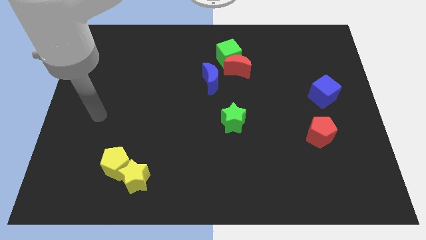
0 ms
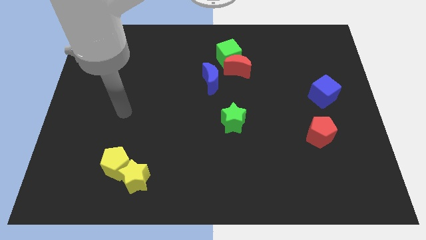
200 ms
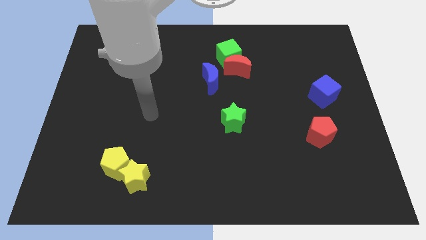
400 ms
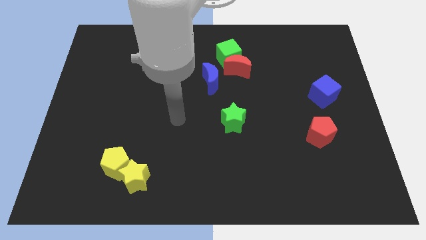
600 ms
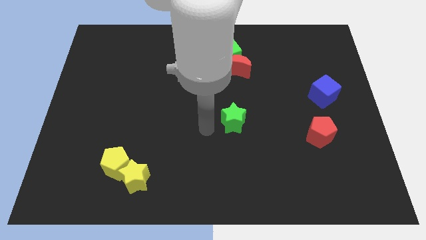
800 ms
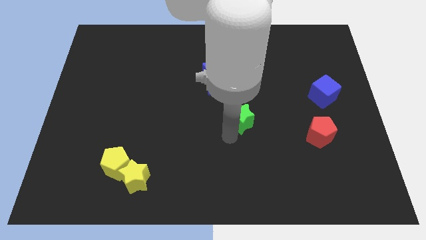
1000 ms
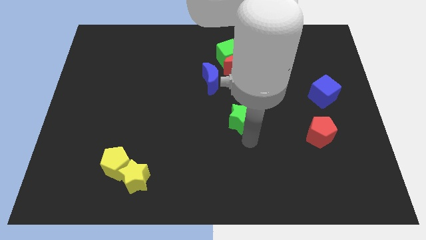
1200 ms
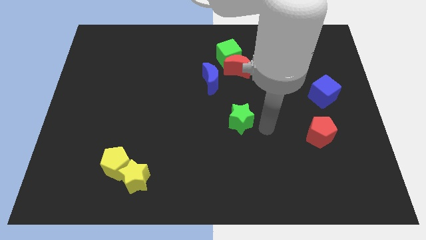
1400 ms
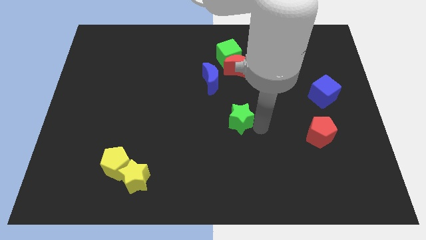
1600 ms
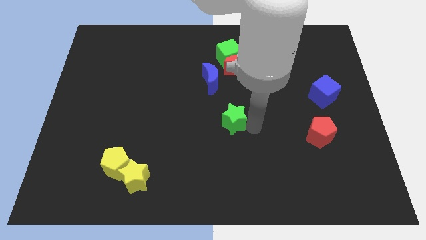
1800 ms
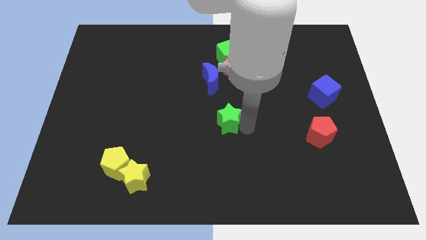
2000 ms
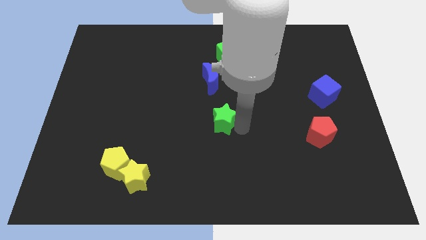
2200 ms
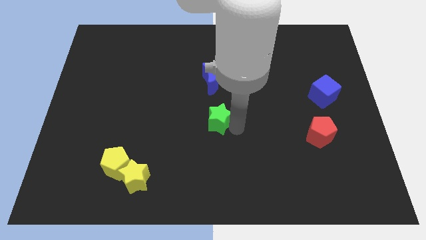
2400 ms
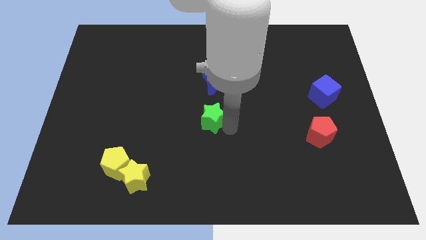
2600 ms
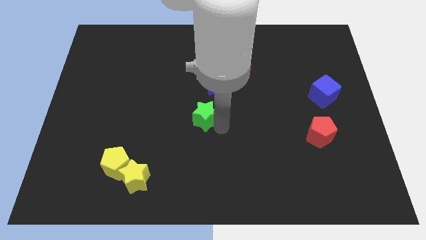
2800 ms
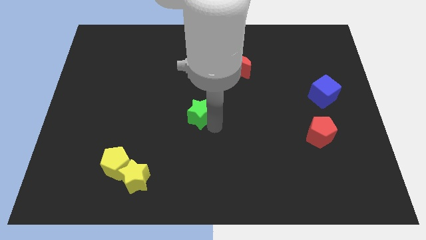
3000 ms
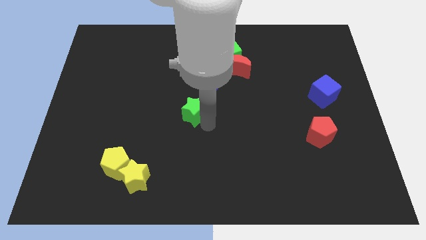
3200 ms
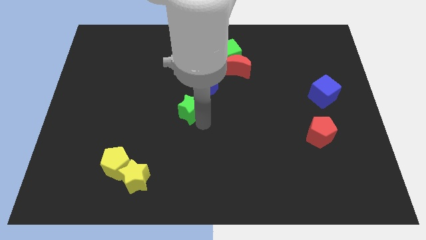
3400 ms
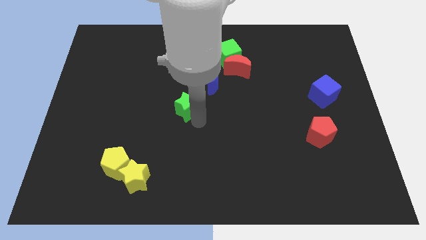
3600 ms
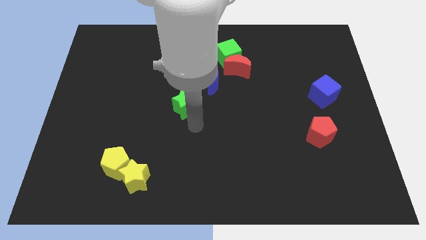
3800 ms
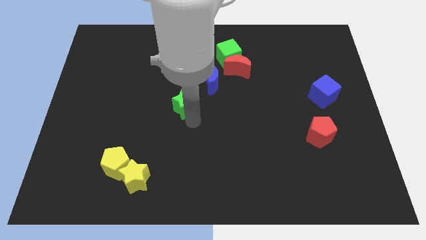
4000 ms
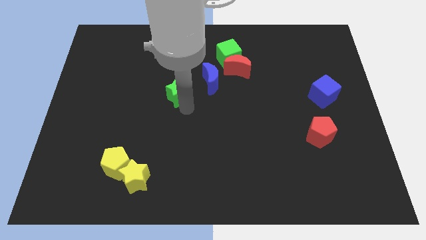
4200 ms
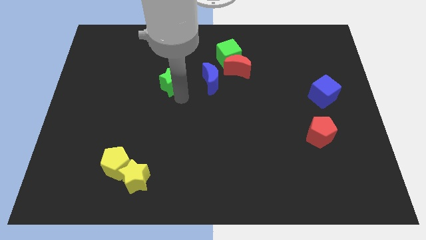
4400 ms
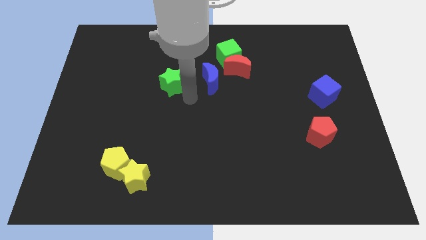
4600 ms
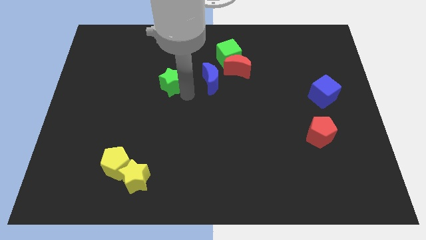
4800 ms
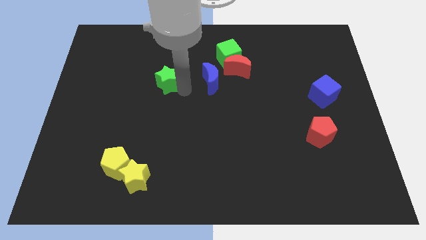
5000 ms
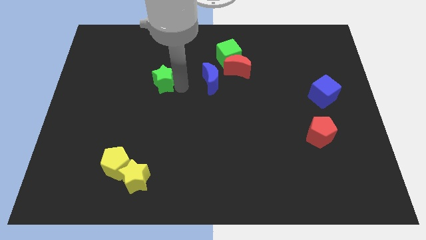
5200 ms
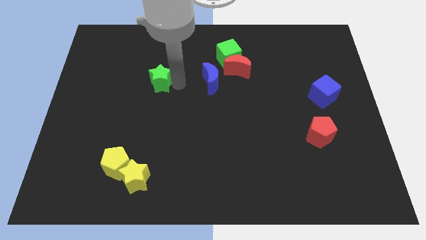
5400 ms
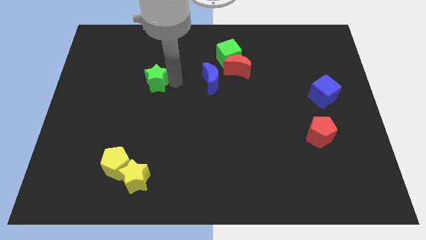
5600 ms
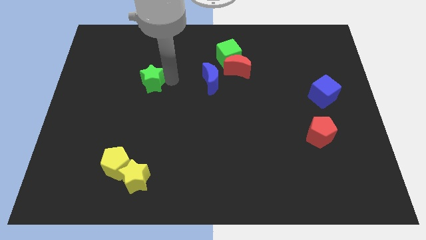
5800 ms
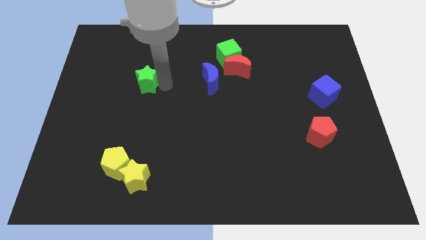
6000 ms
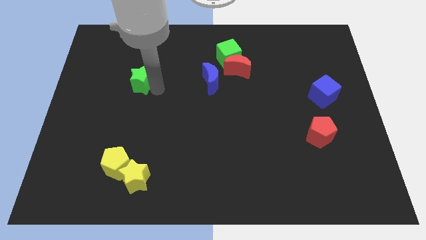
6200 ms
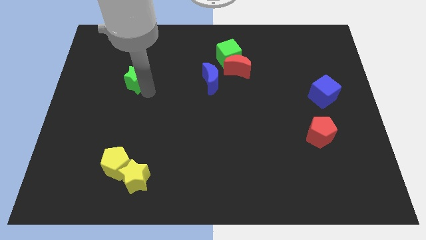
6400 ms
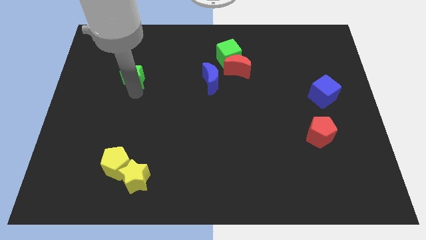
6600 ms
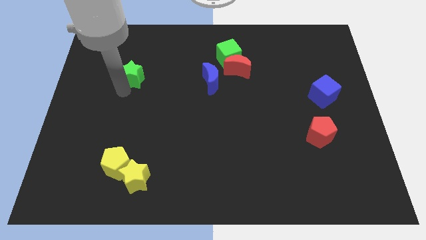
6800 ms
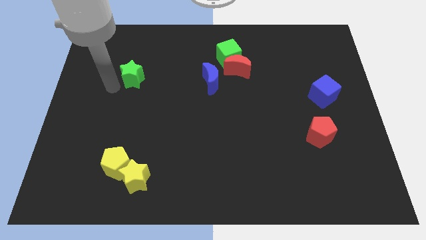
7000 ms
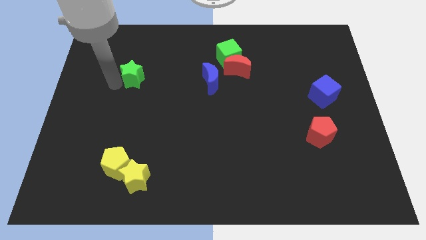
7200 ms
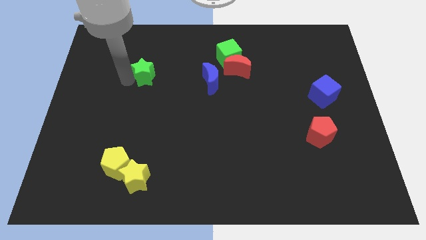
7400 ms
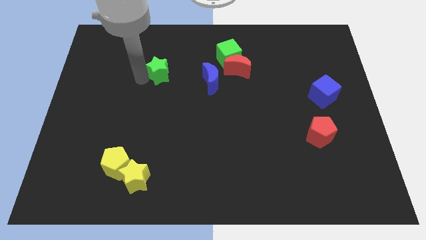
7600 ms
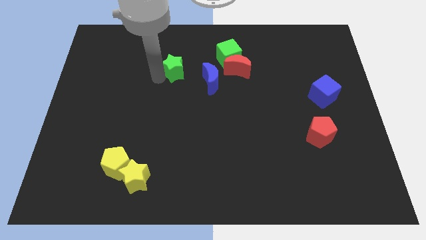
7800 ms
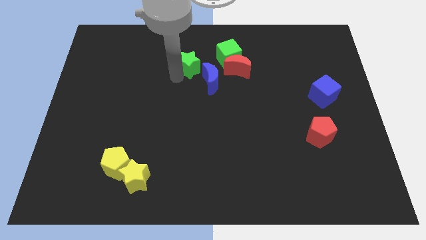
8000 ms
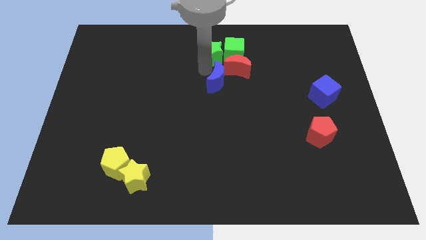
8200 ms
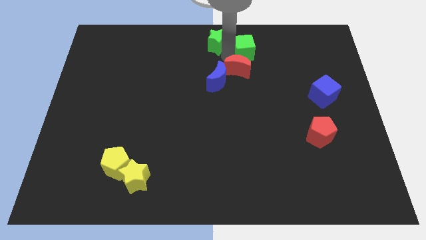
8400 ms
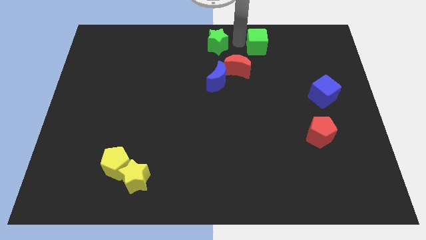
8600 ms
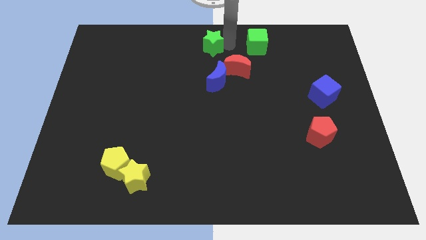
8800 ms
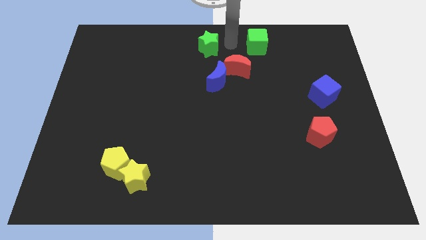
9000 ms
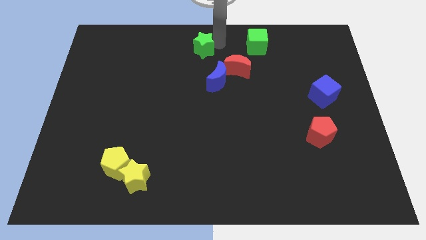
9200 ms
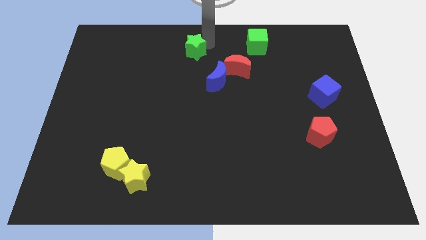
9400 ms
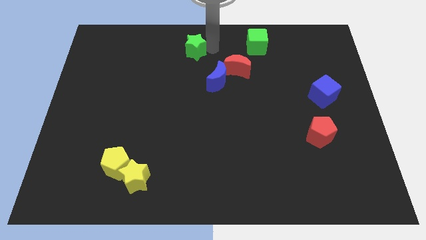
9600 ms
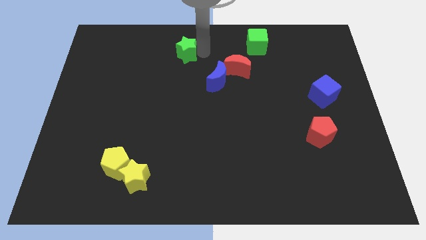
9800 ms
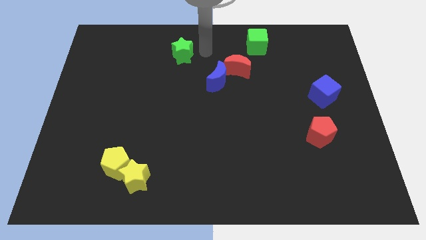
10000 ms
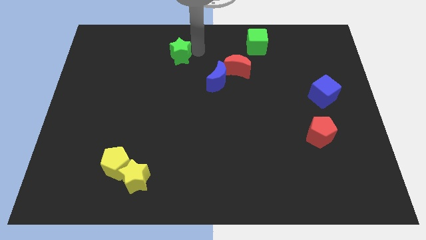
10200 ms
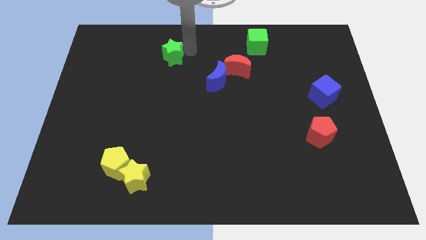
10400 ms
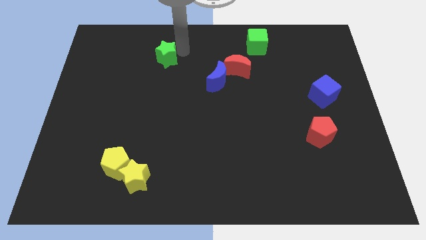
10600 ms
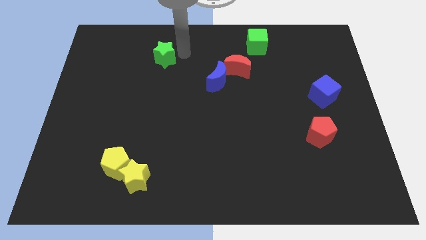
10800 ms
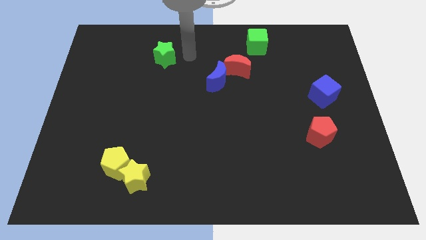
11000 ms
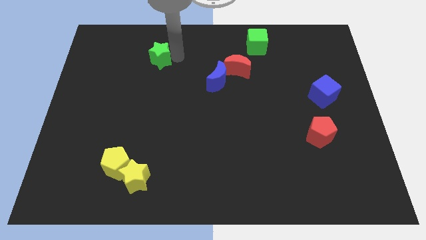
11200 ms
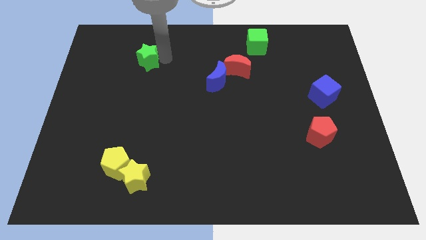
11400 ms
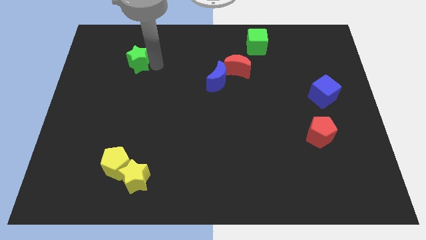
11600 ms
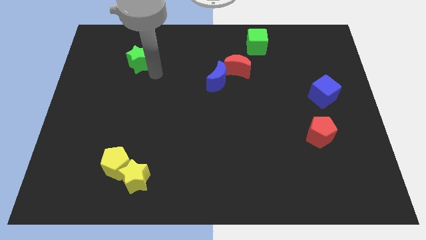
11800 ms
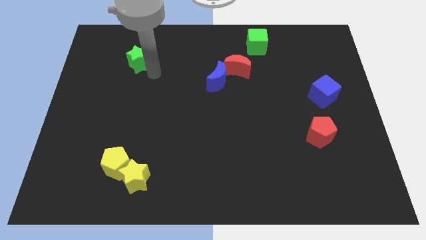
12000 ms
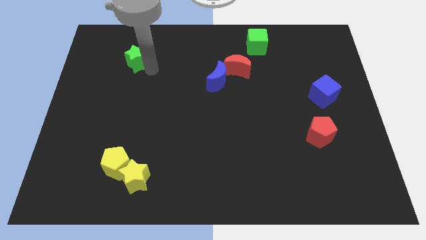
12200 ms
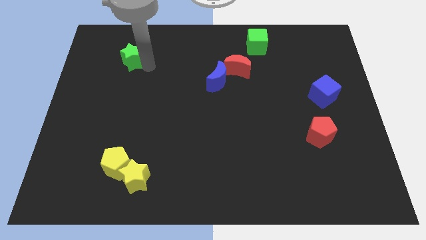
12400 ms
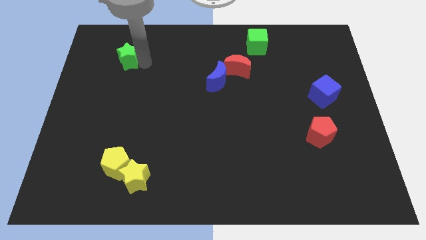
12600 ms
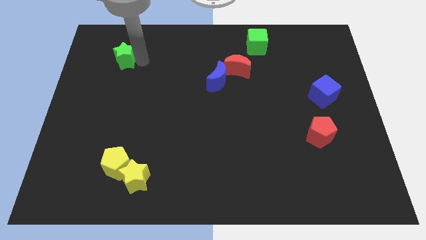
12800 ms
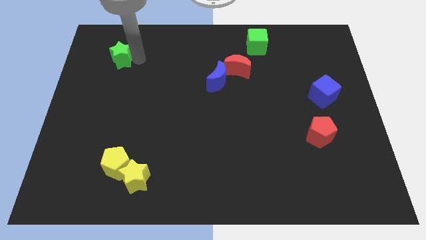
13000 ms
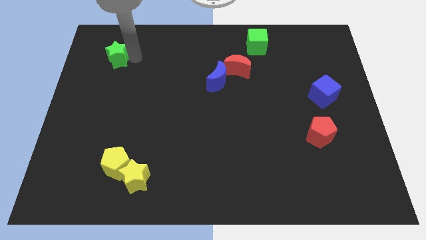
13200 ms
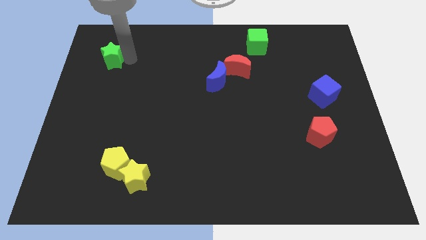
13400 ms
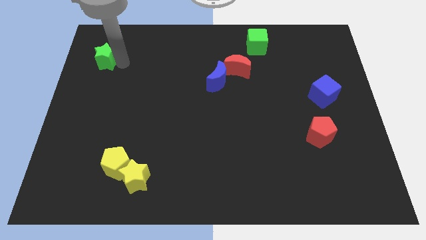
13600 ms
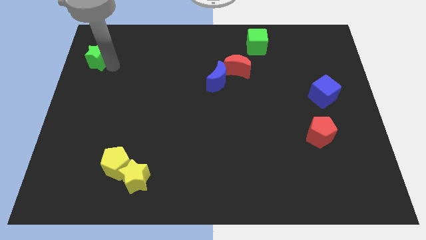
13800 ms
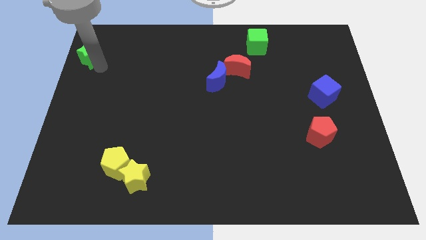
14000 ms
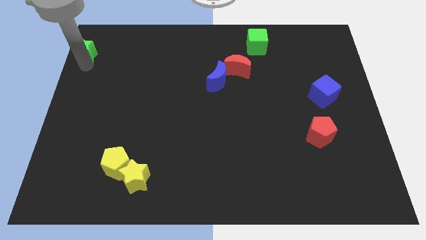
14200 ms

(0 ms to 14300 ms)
move the green star to the top left of the board

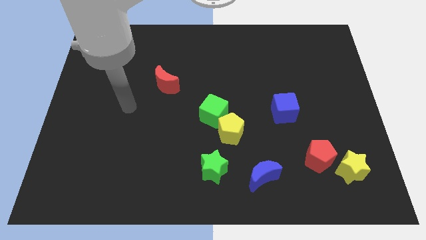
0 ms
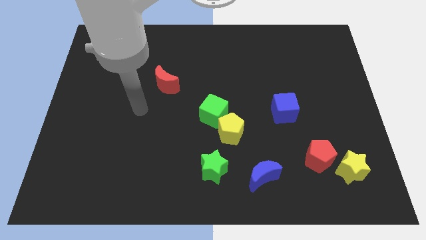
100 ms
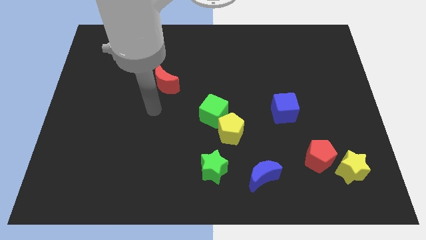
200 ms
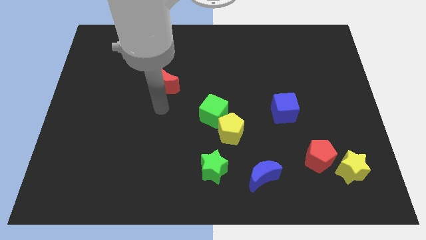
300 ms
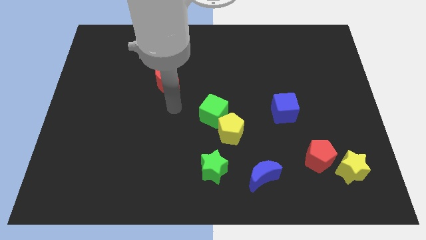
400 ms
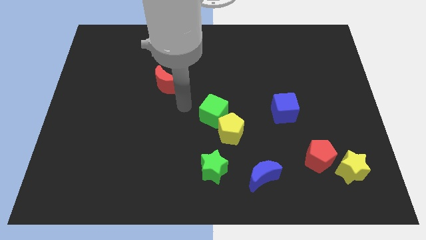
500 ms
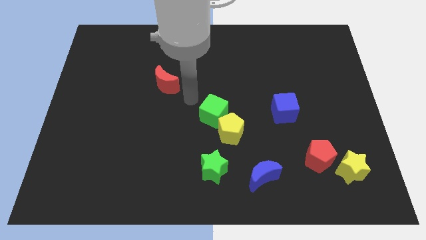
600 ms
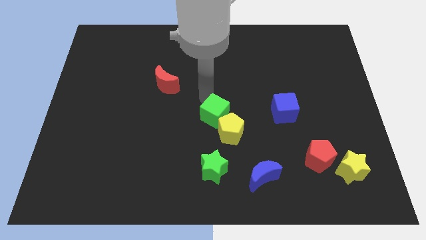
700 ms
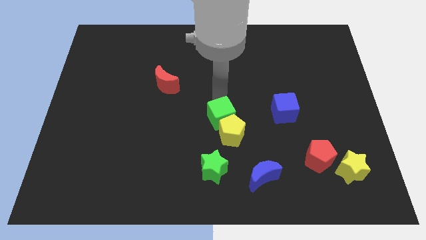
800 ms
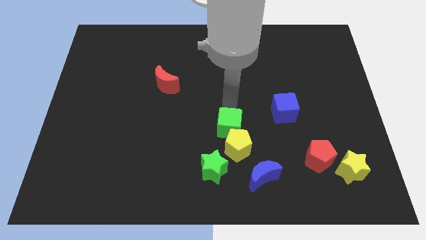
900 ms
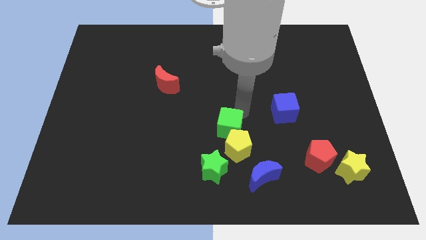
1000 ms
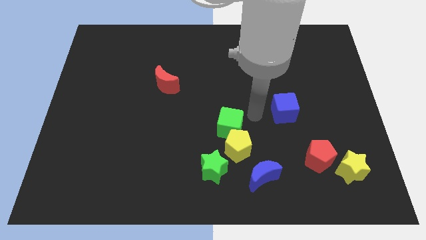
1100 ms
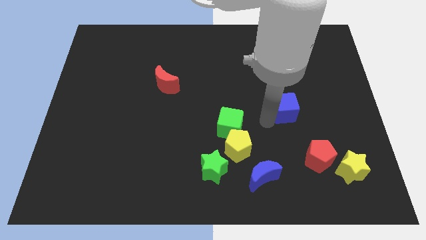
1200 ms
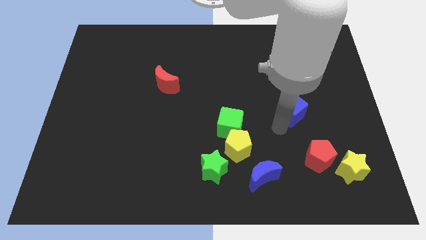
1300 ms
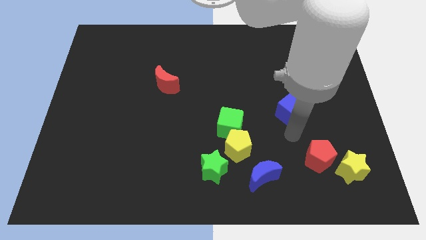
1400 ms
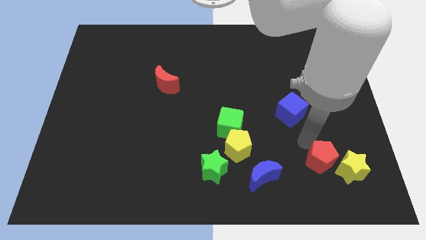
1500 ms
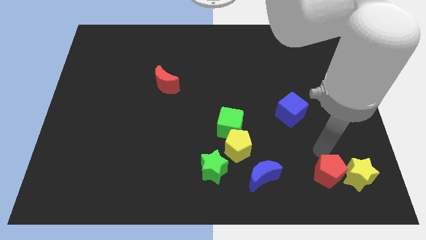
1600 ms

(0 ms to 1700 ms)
move the yellow star to the lower right corner
